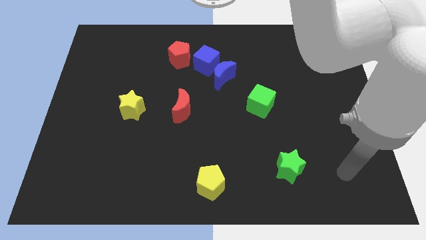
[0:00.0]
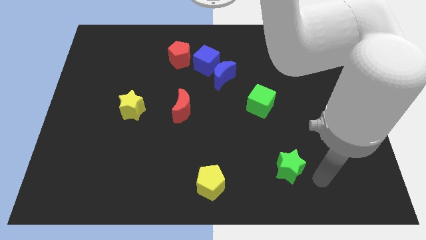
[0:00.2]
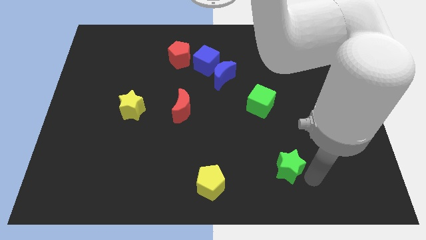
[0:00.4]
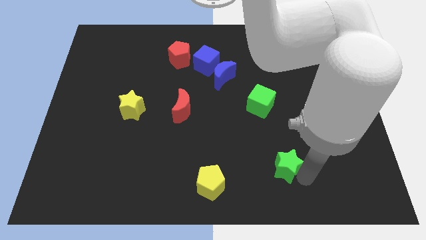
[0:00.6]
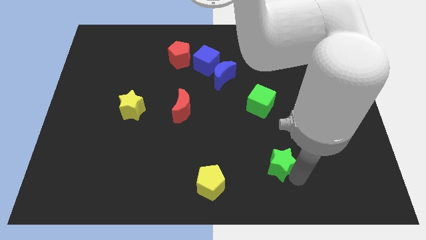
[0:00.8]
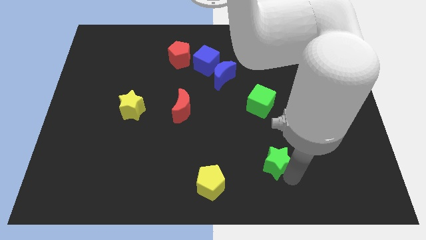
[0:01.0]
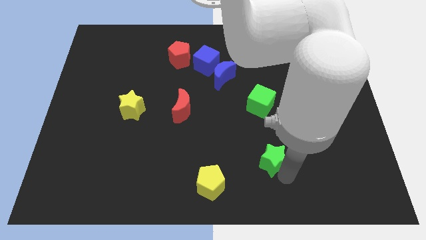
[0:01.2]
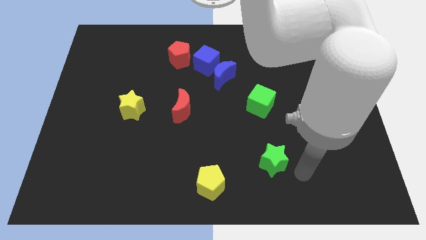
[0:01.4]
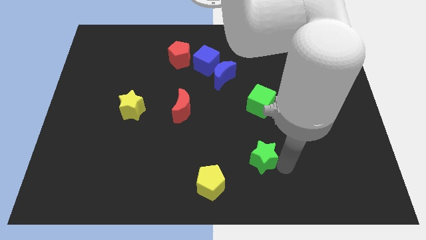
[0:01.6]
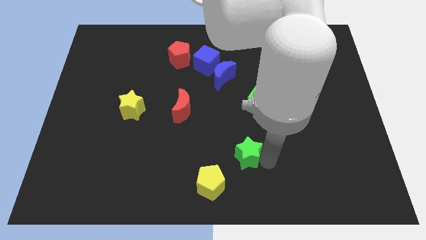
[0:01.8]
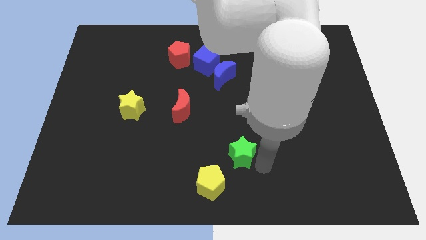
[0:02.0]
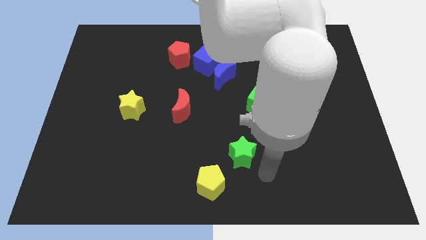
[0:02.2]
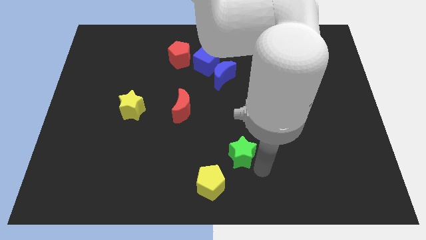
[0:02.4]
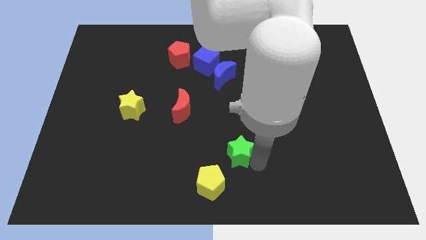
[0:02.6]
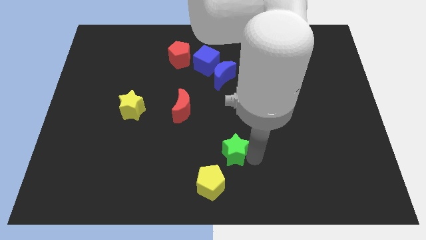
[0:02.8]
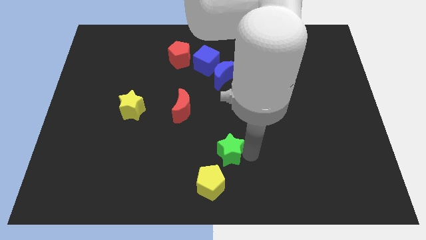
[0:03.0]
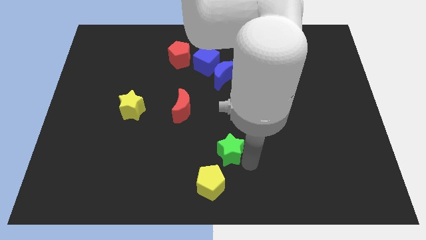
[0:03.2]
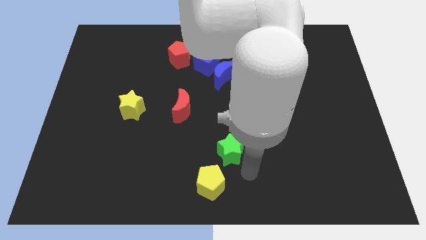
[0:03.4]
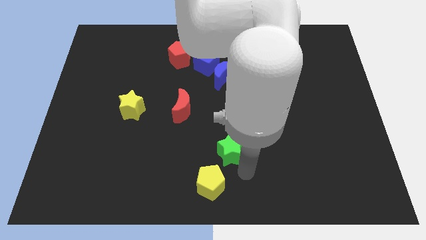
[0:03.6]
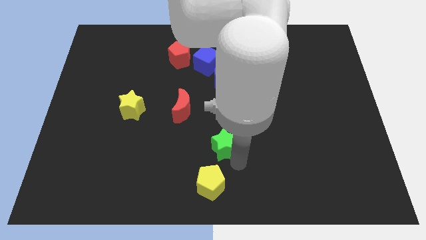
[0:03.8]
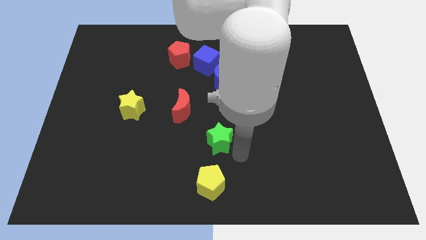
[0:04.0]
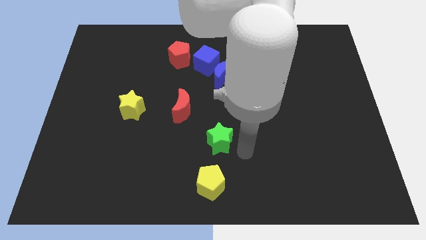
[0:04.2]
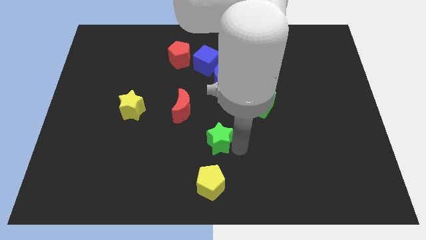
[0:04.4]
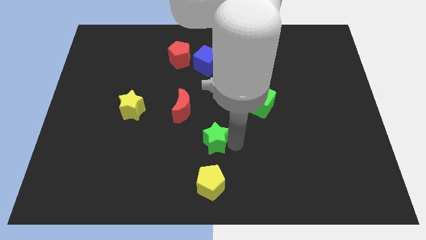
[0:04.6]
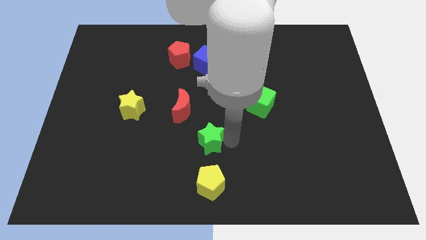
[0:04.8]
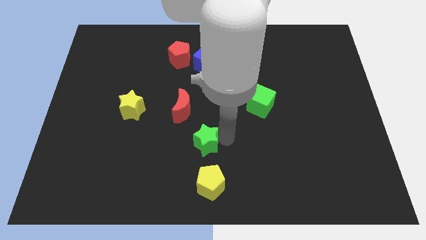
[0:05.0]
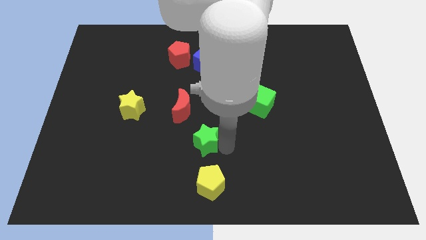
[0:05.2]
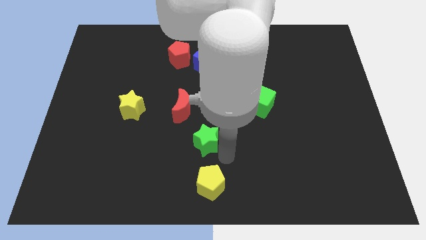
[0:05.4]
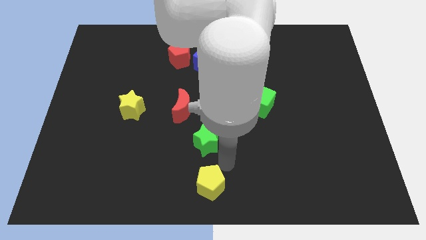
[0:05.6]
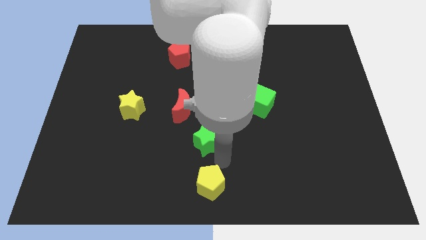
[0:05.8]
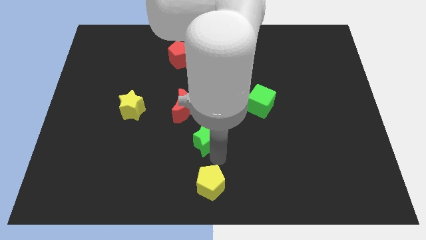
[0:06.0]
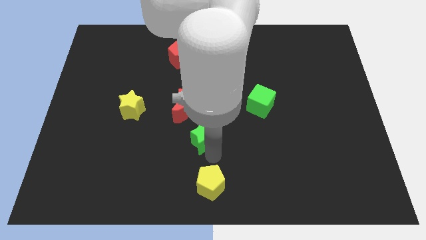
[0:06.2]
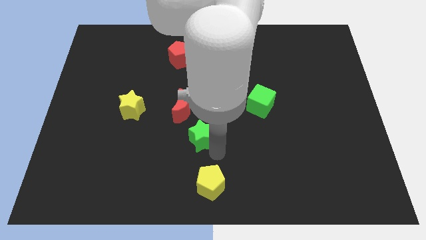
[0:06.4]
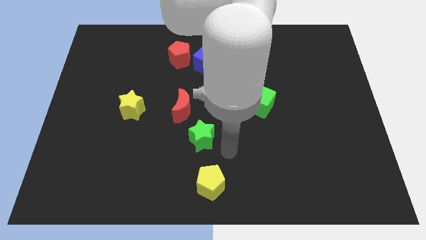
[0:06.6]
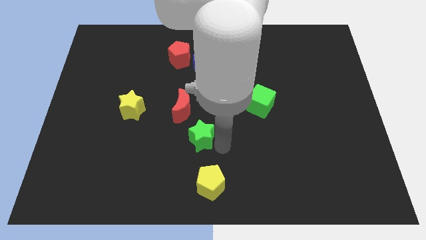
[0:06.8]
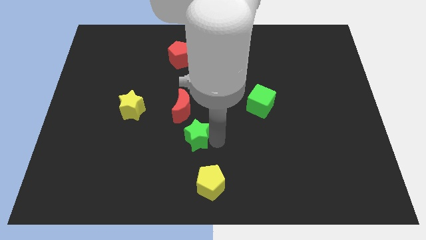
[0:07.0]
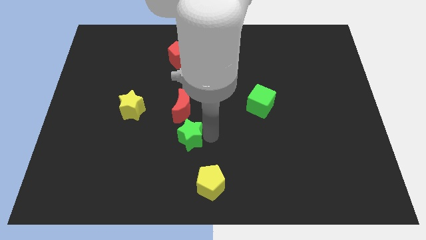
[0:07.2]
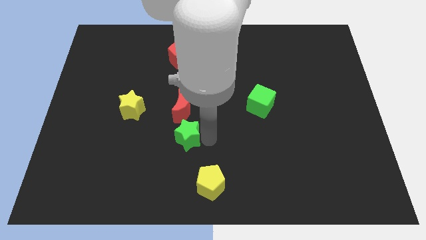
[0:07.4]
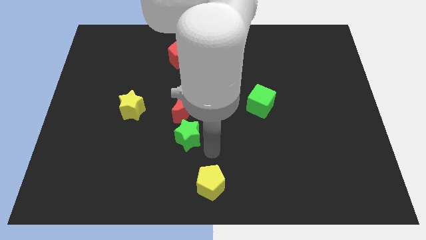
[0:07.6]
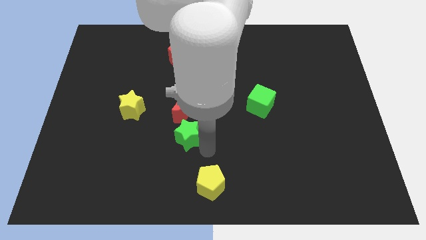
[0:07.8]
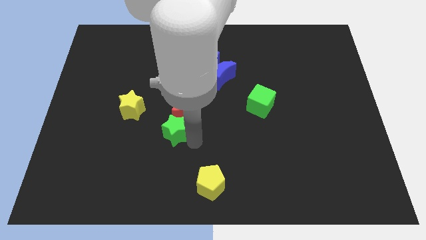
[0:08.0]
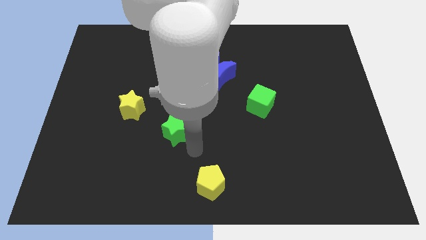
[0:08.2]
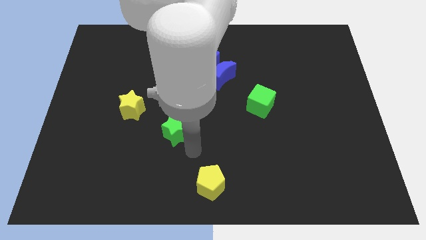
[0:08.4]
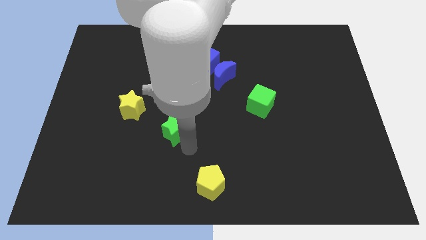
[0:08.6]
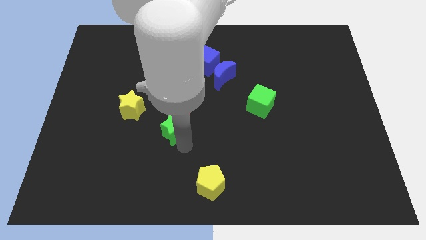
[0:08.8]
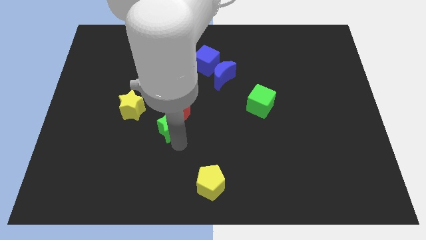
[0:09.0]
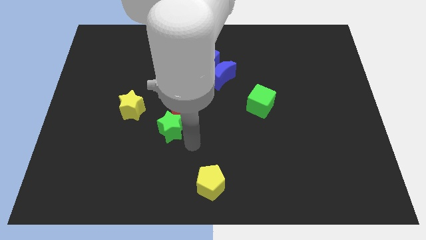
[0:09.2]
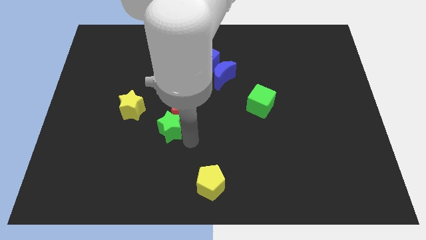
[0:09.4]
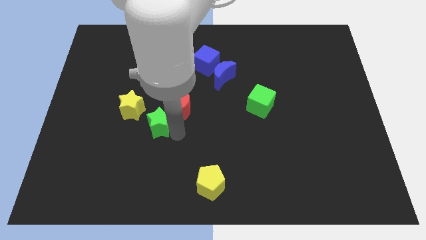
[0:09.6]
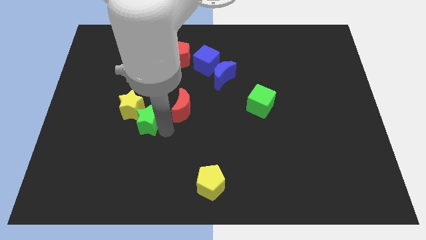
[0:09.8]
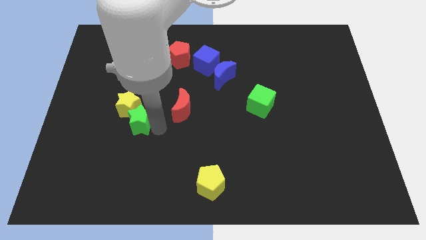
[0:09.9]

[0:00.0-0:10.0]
slide the green star close to the yellow star

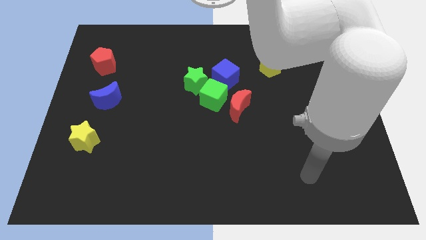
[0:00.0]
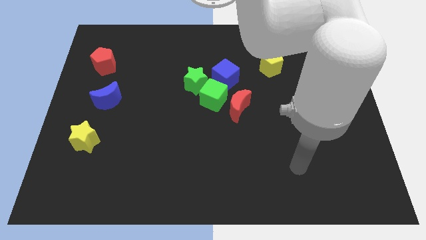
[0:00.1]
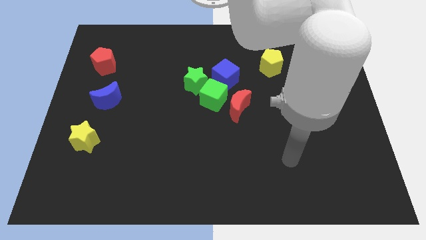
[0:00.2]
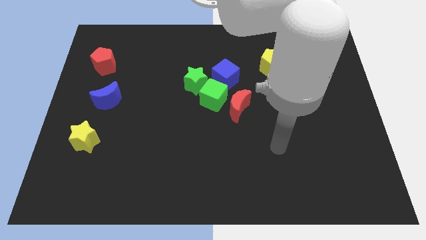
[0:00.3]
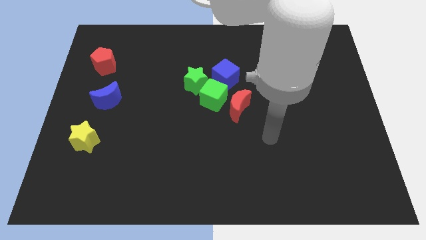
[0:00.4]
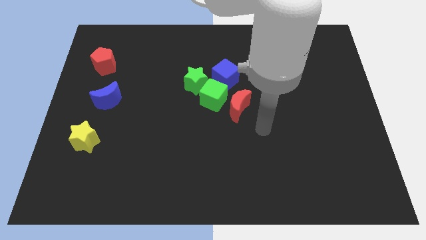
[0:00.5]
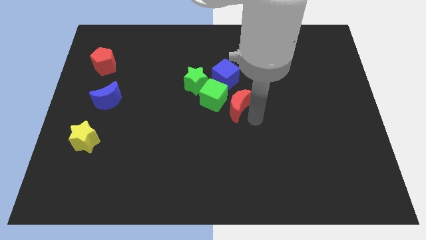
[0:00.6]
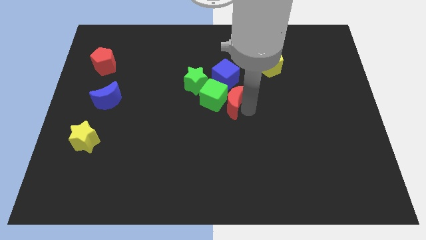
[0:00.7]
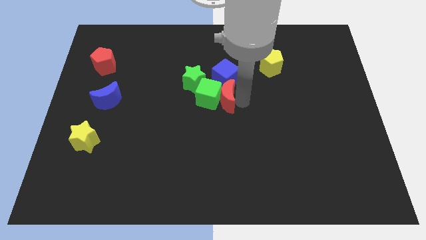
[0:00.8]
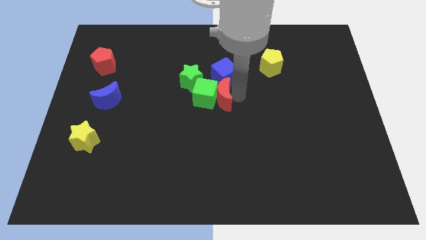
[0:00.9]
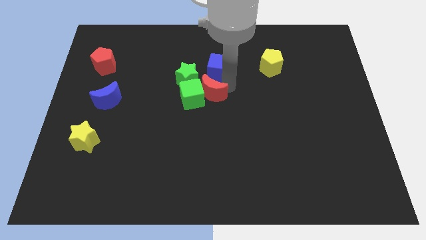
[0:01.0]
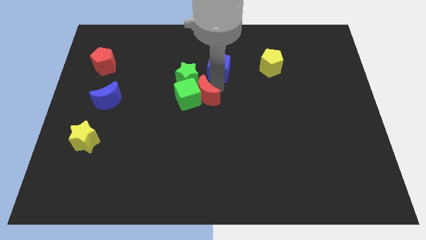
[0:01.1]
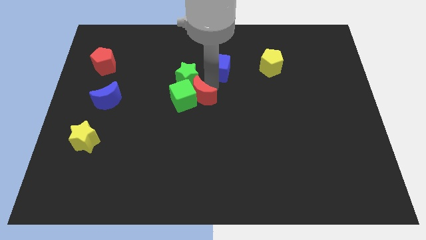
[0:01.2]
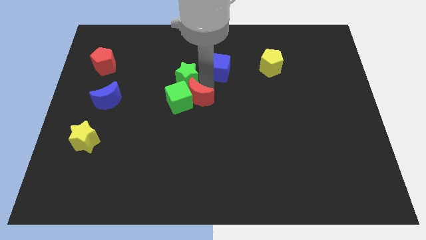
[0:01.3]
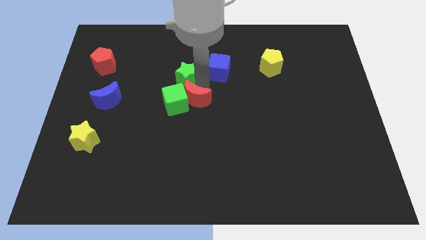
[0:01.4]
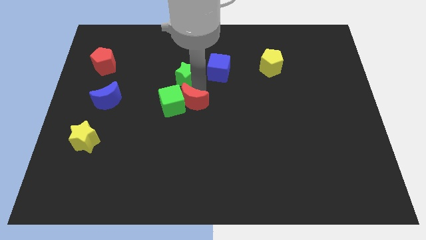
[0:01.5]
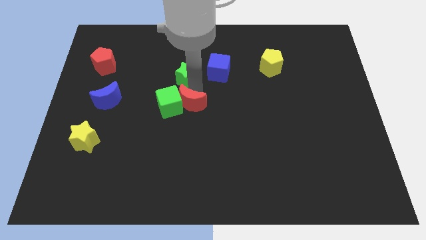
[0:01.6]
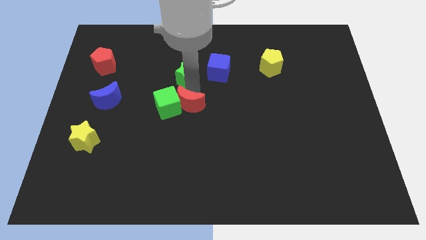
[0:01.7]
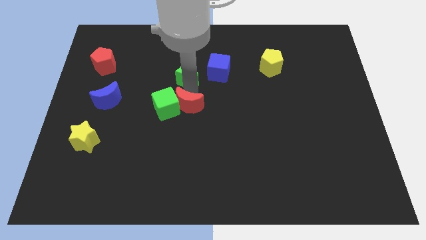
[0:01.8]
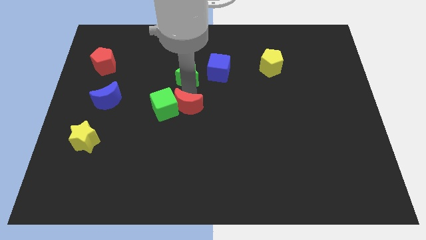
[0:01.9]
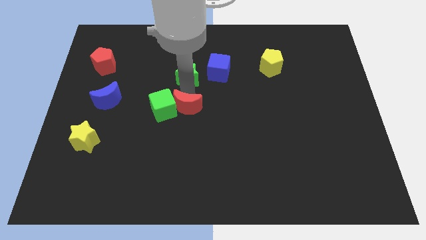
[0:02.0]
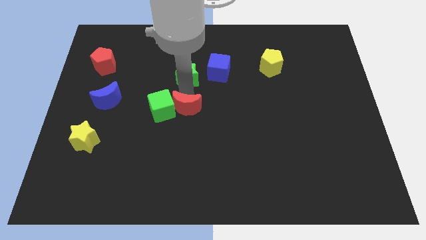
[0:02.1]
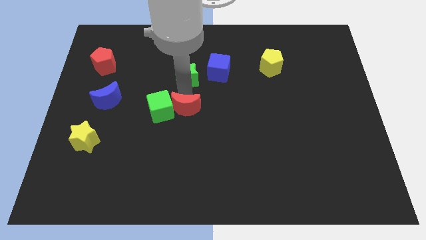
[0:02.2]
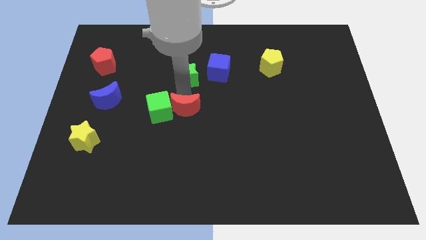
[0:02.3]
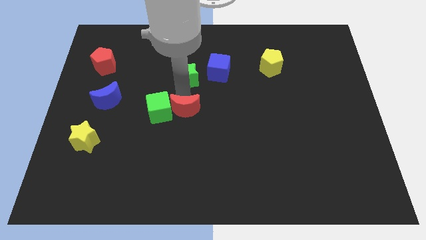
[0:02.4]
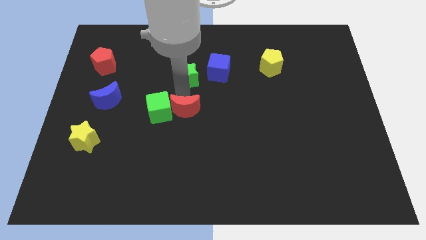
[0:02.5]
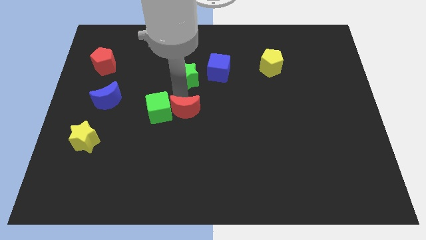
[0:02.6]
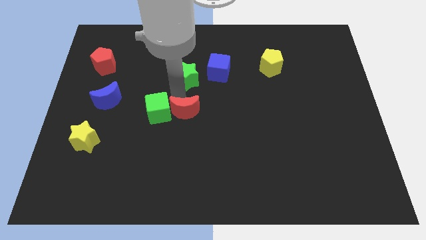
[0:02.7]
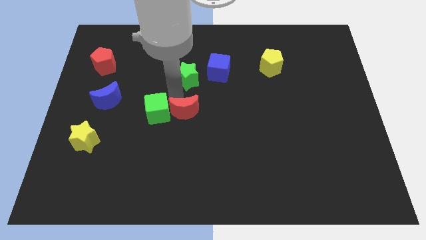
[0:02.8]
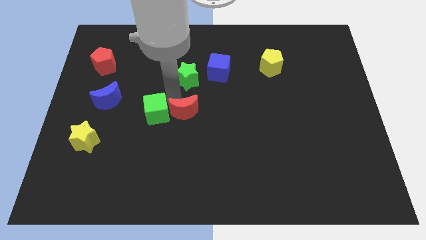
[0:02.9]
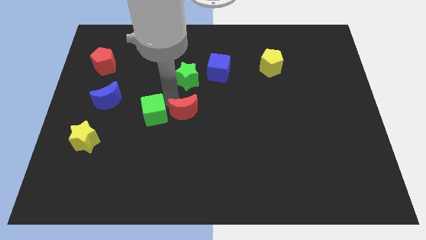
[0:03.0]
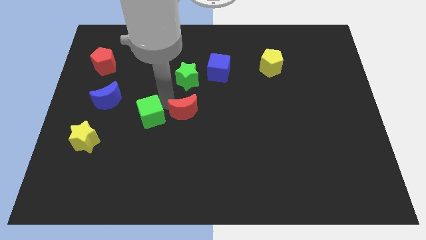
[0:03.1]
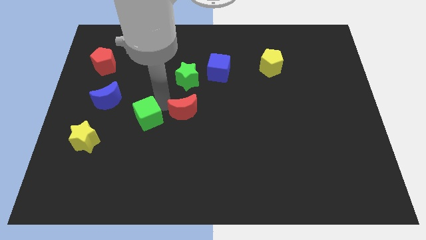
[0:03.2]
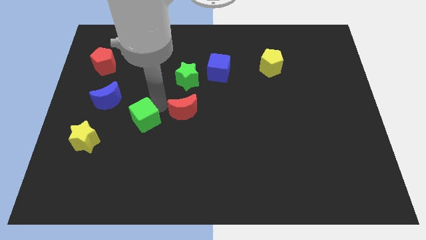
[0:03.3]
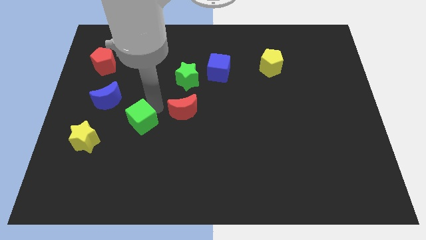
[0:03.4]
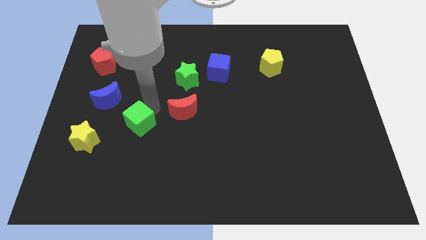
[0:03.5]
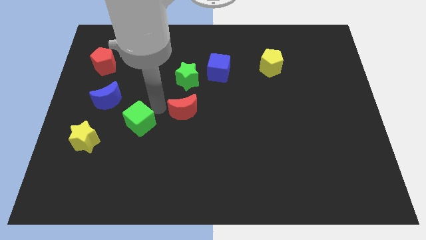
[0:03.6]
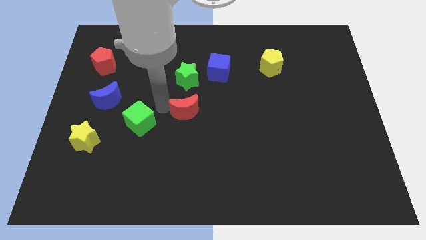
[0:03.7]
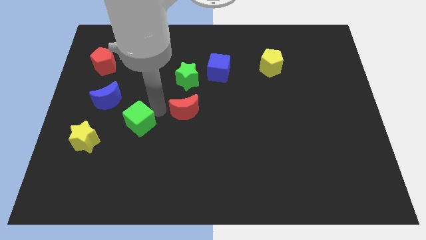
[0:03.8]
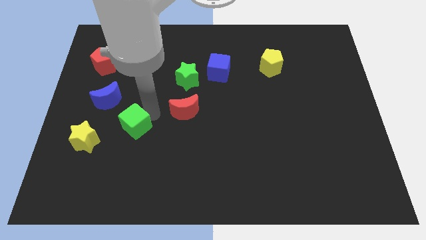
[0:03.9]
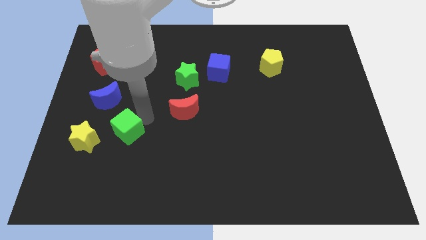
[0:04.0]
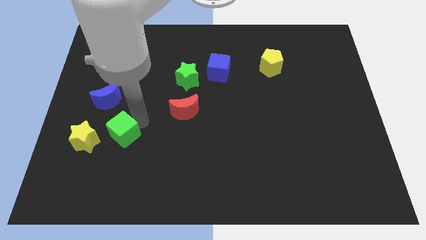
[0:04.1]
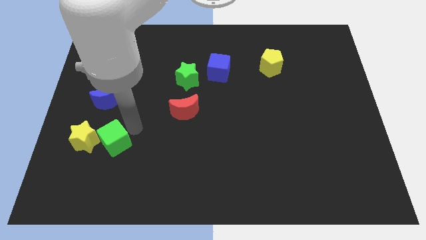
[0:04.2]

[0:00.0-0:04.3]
put the green cube towards the yellow star
